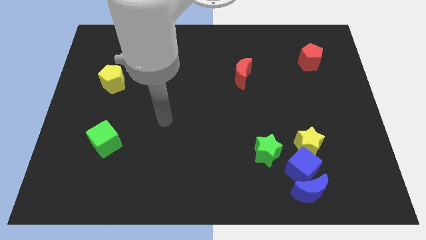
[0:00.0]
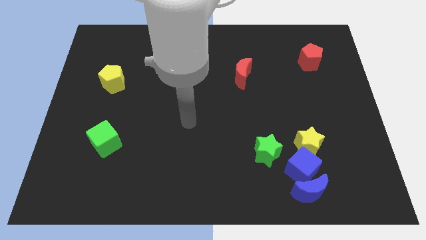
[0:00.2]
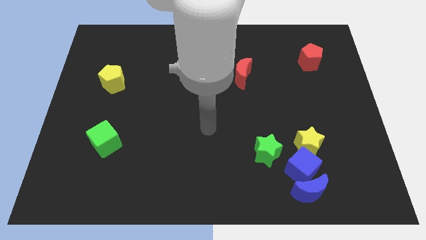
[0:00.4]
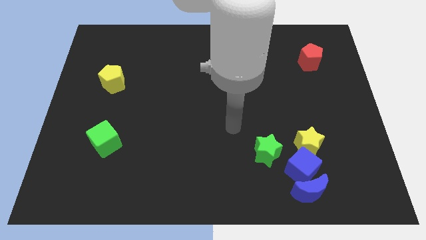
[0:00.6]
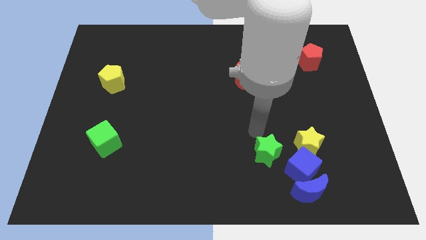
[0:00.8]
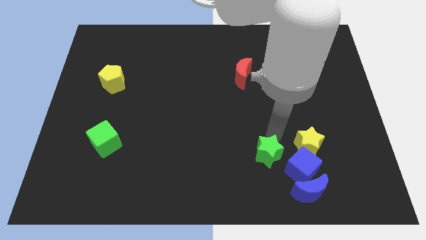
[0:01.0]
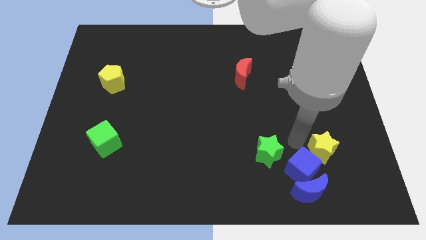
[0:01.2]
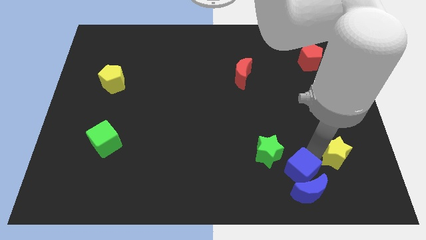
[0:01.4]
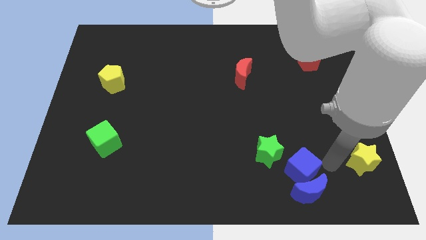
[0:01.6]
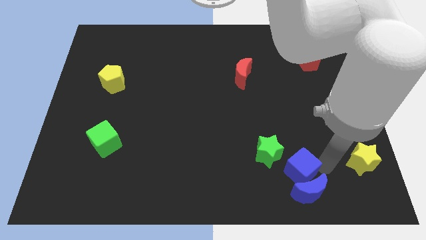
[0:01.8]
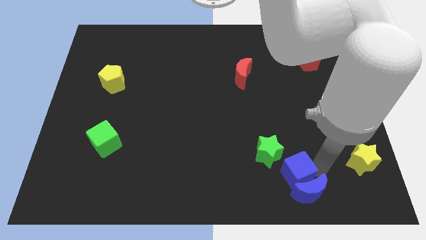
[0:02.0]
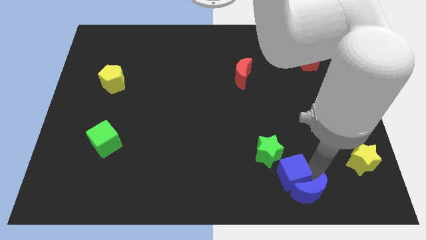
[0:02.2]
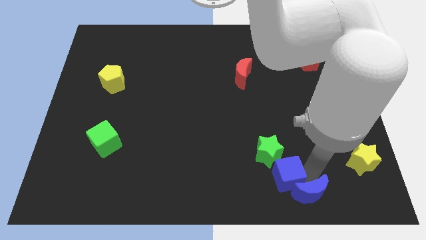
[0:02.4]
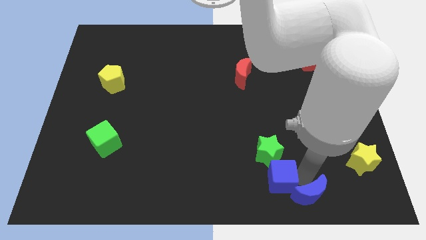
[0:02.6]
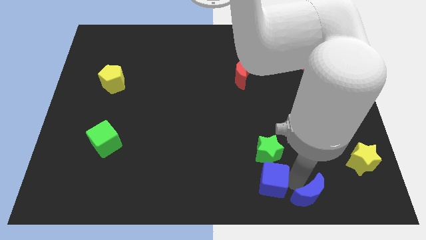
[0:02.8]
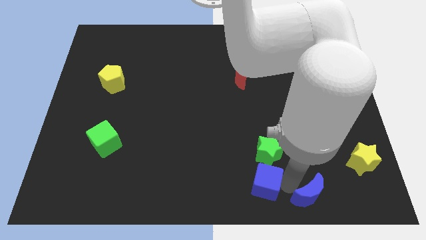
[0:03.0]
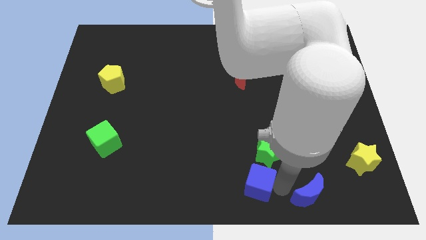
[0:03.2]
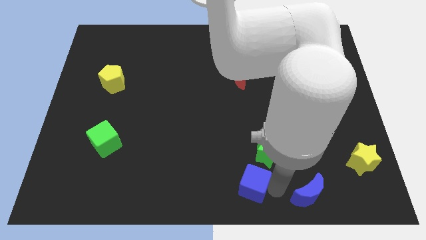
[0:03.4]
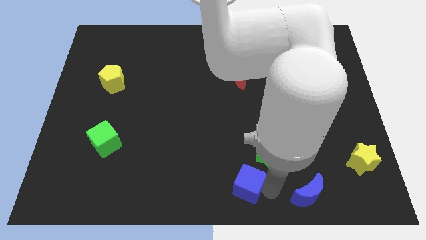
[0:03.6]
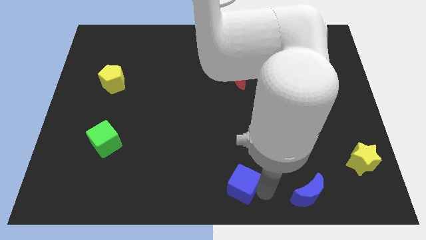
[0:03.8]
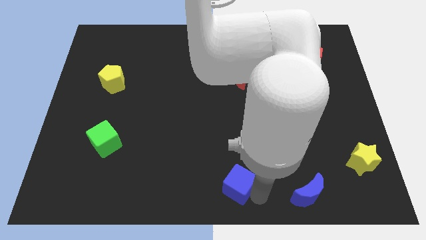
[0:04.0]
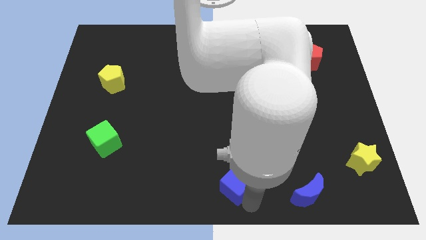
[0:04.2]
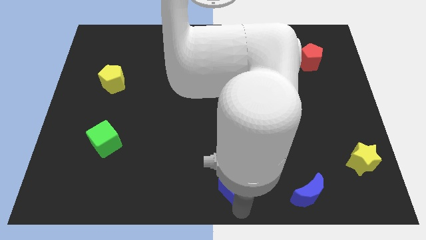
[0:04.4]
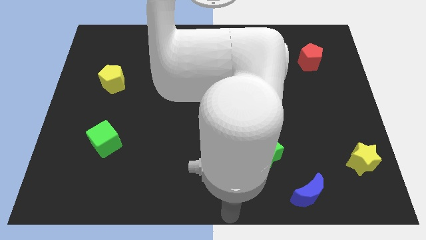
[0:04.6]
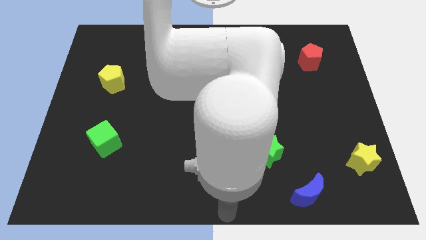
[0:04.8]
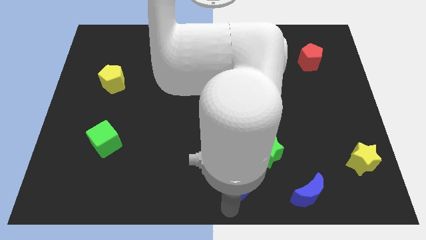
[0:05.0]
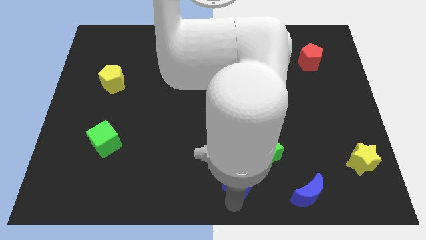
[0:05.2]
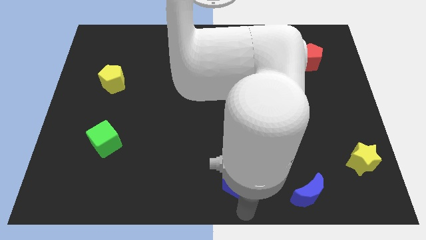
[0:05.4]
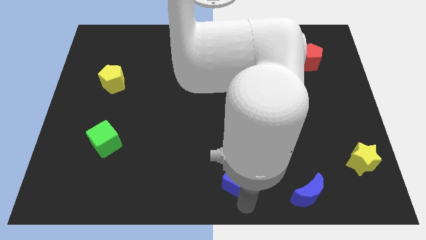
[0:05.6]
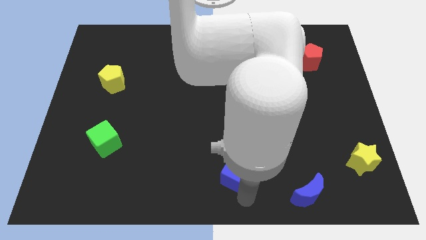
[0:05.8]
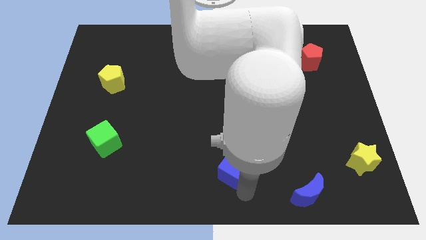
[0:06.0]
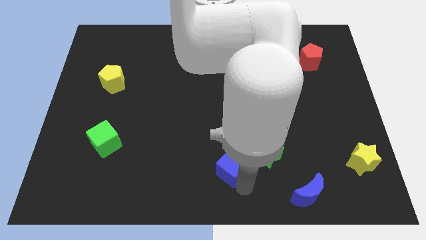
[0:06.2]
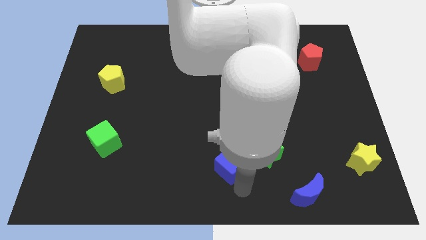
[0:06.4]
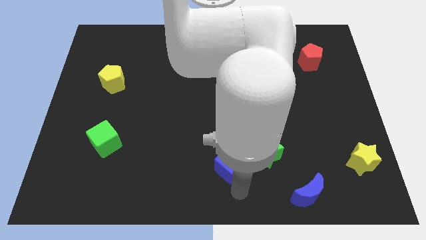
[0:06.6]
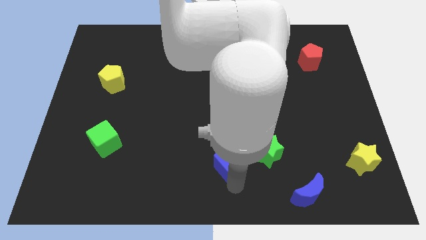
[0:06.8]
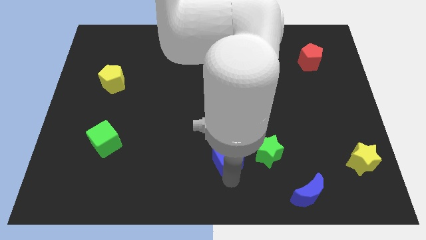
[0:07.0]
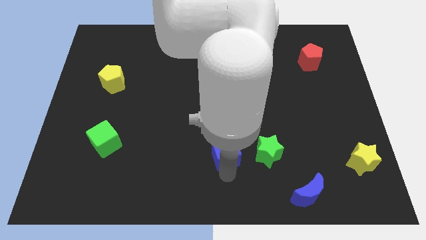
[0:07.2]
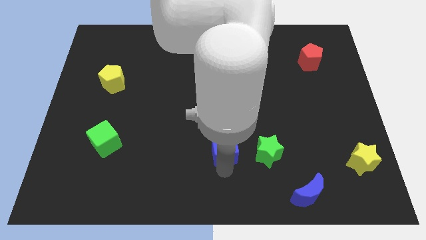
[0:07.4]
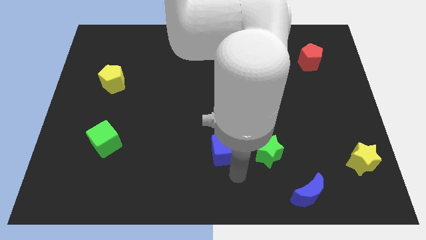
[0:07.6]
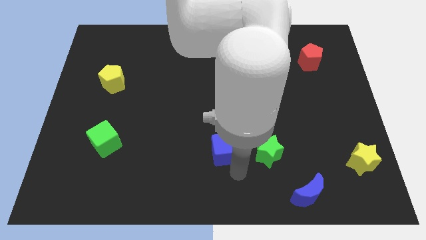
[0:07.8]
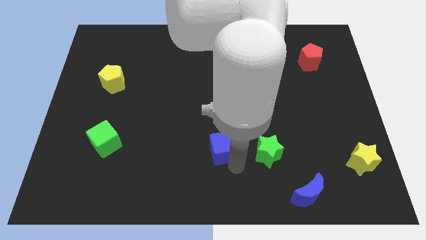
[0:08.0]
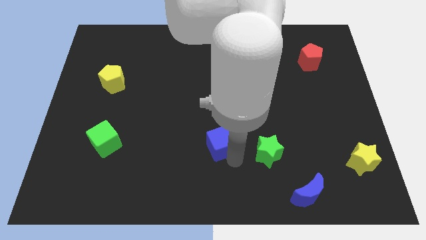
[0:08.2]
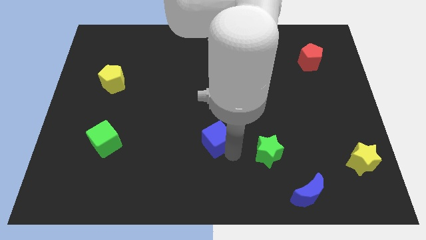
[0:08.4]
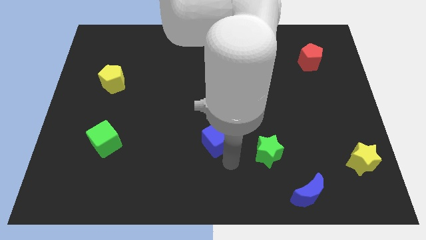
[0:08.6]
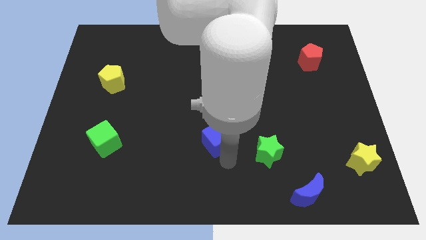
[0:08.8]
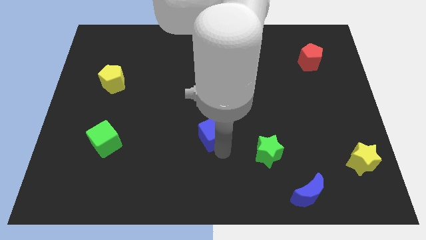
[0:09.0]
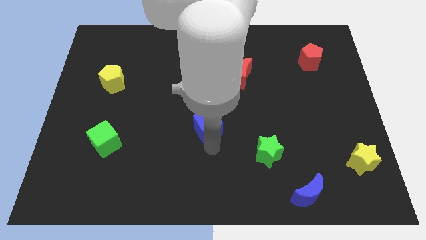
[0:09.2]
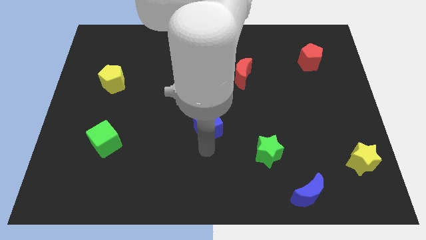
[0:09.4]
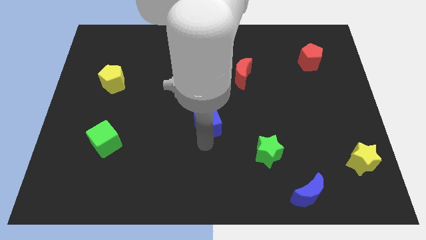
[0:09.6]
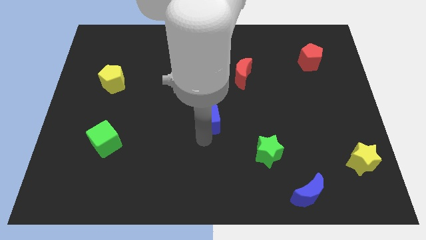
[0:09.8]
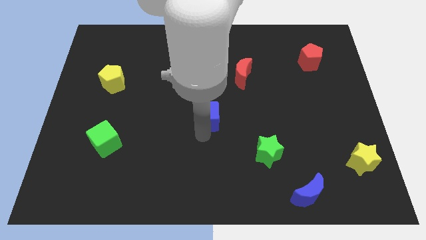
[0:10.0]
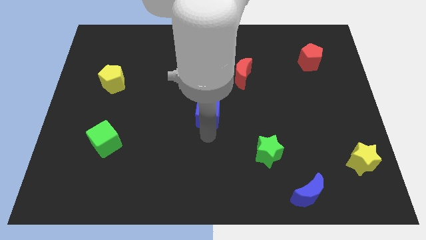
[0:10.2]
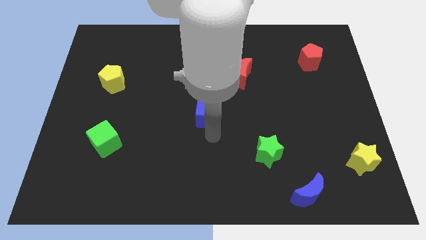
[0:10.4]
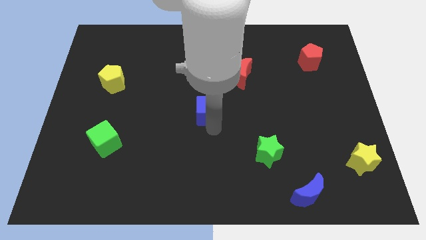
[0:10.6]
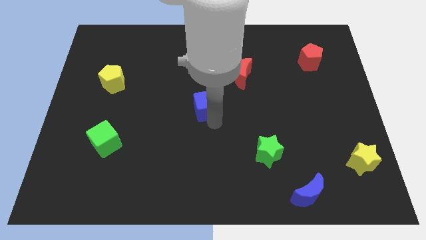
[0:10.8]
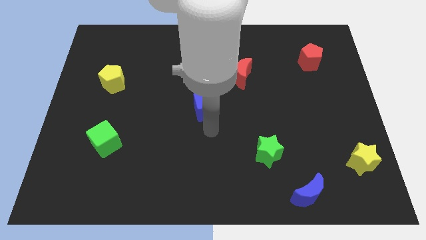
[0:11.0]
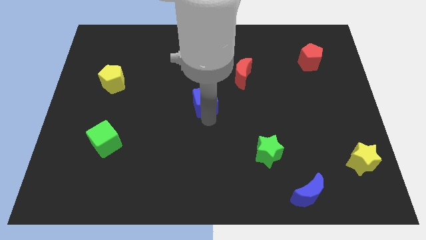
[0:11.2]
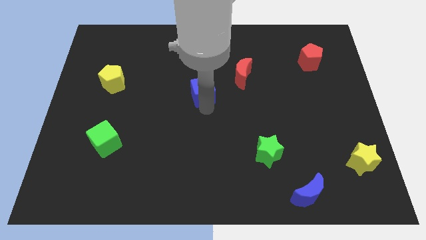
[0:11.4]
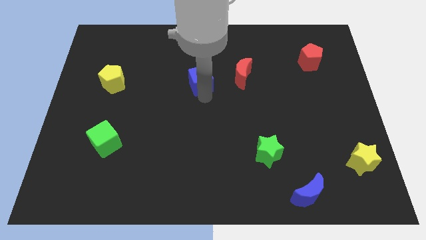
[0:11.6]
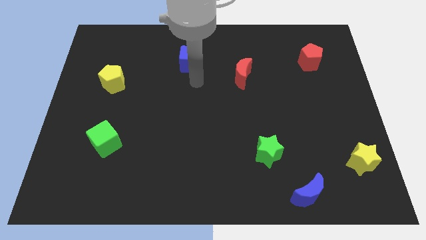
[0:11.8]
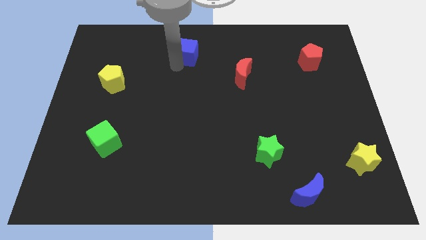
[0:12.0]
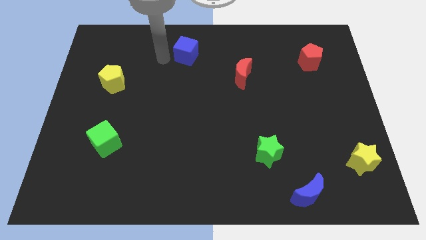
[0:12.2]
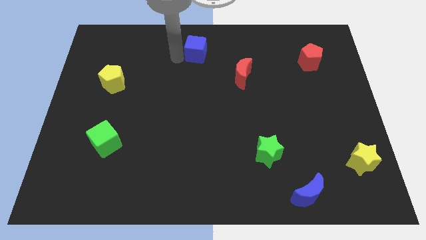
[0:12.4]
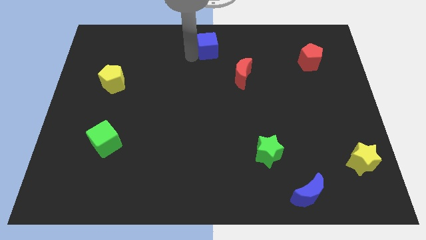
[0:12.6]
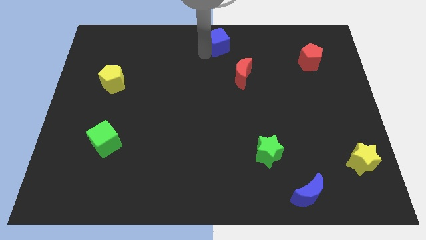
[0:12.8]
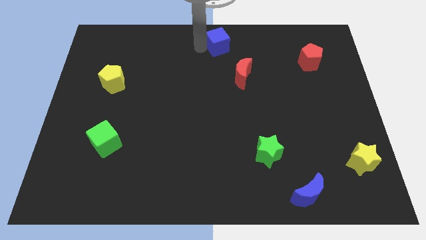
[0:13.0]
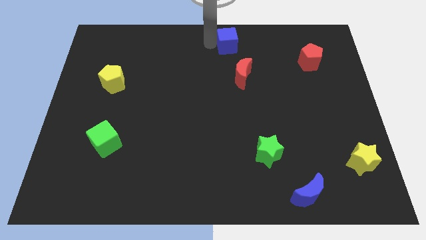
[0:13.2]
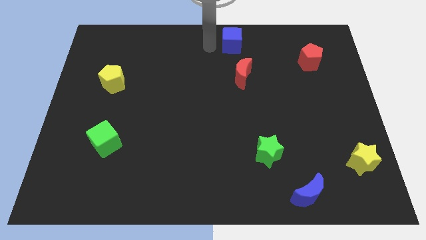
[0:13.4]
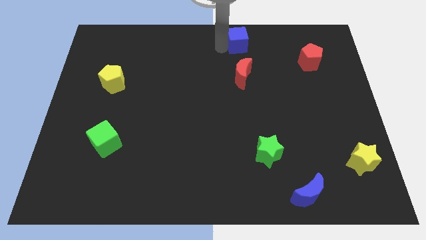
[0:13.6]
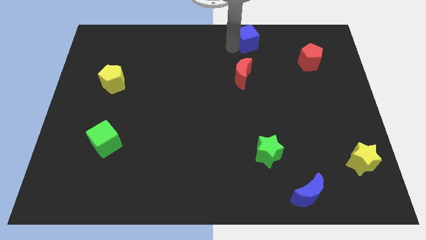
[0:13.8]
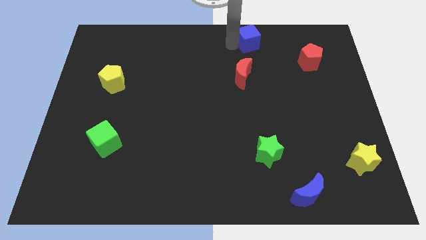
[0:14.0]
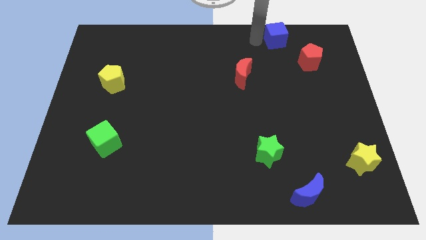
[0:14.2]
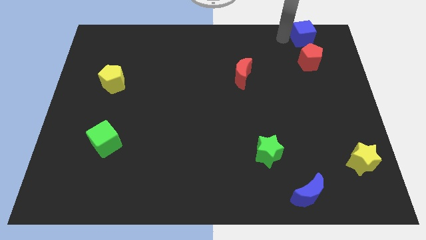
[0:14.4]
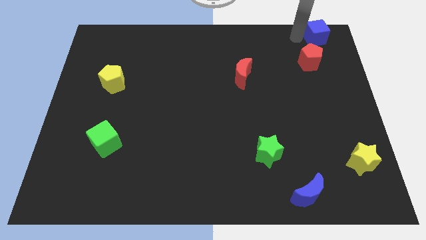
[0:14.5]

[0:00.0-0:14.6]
put the blue cube to the top right
